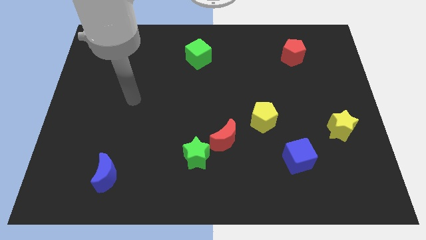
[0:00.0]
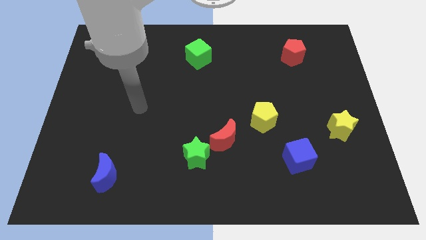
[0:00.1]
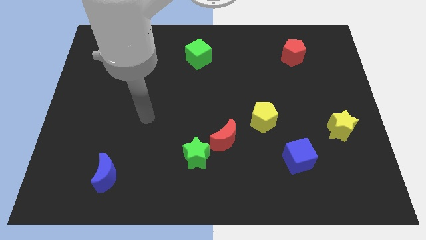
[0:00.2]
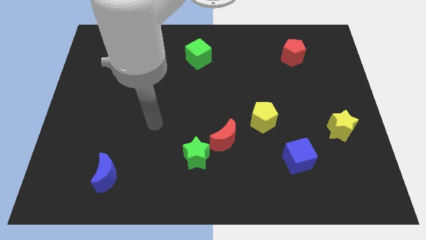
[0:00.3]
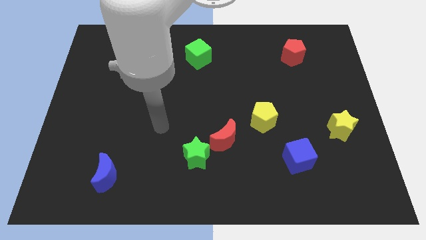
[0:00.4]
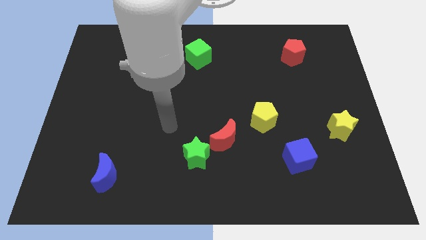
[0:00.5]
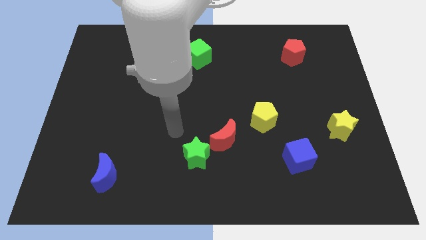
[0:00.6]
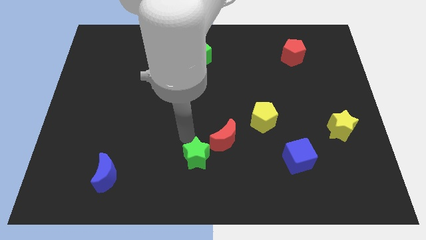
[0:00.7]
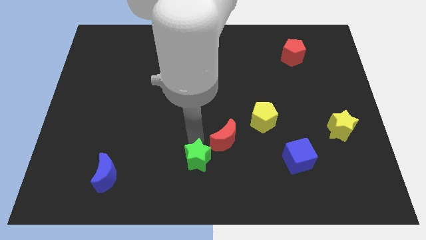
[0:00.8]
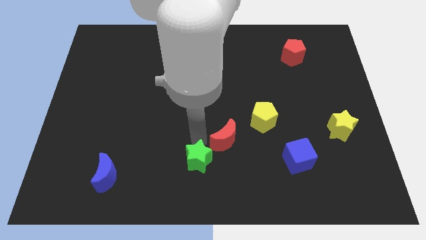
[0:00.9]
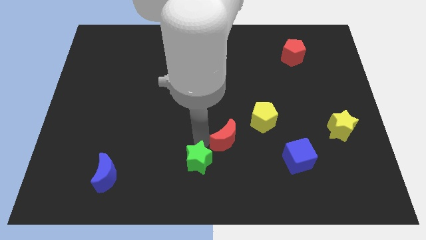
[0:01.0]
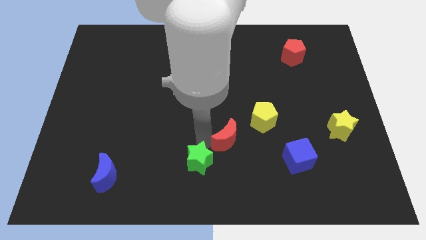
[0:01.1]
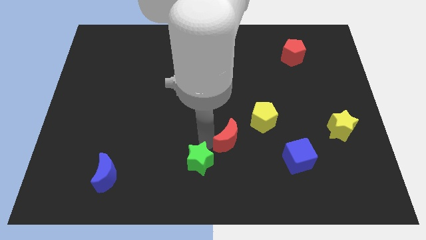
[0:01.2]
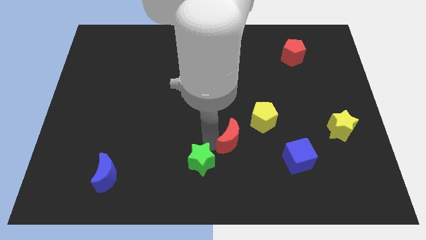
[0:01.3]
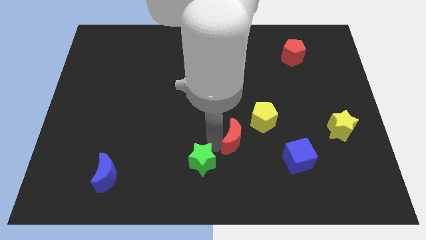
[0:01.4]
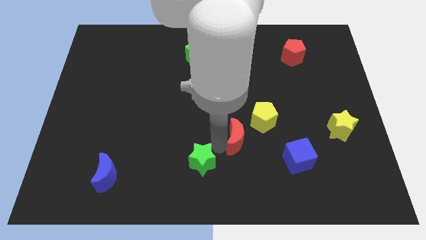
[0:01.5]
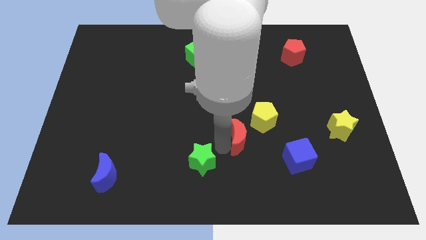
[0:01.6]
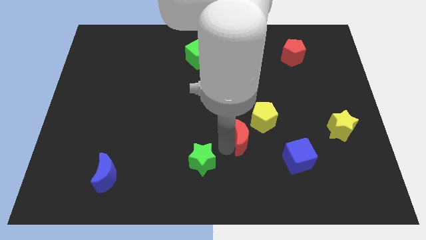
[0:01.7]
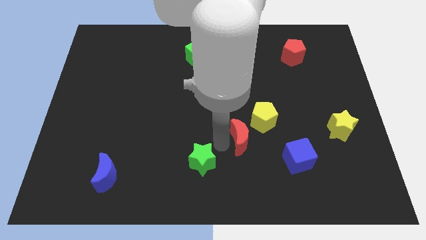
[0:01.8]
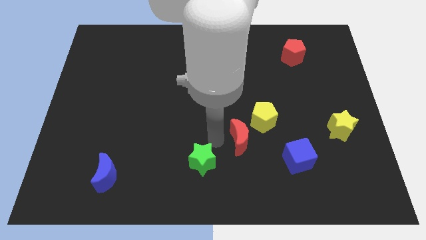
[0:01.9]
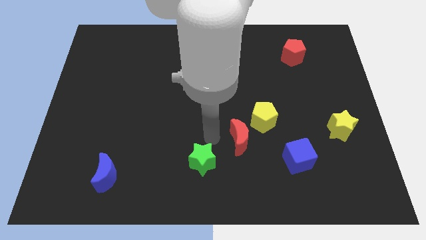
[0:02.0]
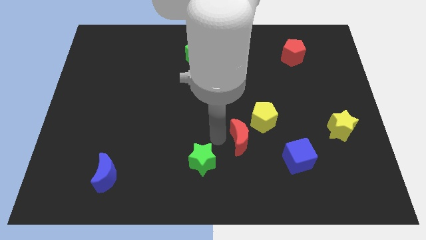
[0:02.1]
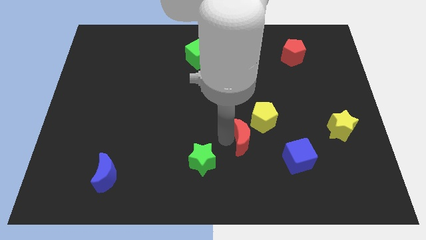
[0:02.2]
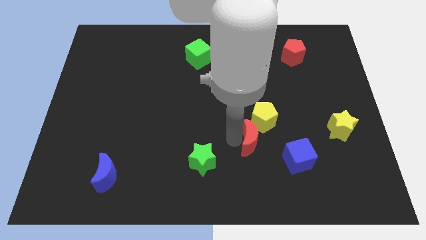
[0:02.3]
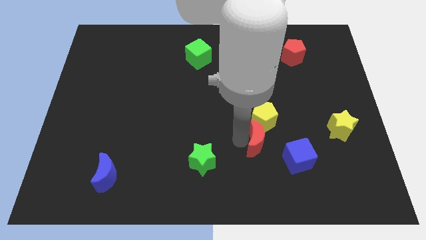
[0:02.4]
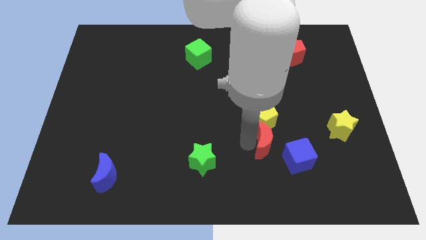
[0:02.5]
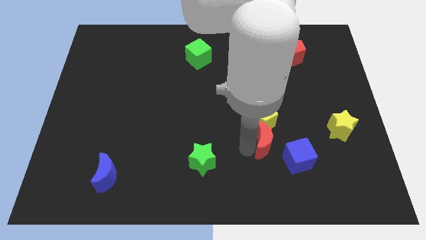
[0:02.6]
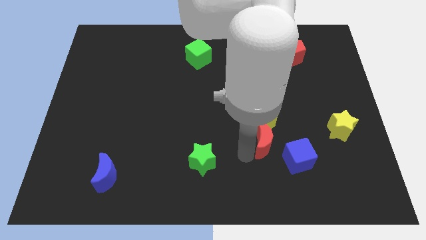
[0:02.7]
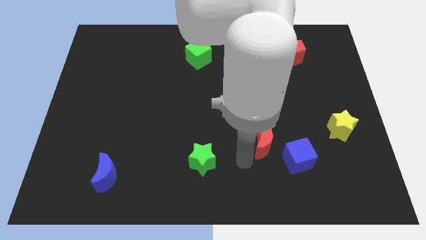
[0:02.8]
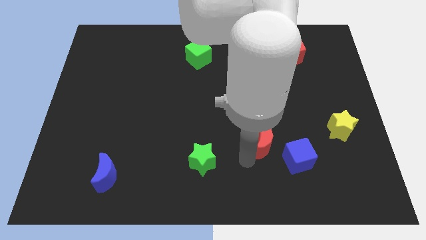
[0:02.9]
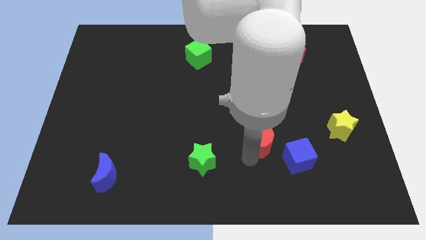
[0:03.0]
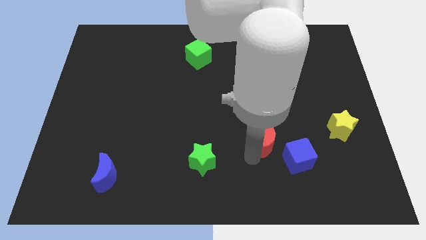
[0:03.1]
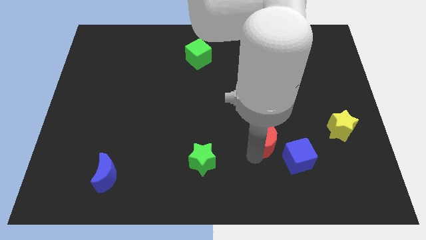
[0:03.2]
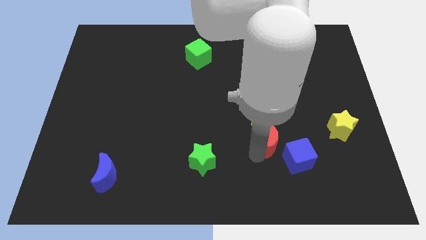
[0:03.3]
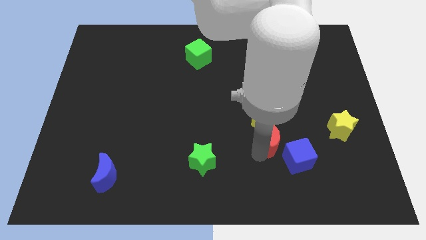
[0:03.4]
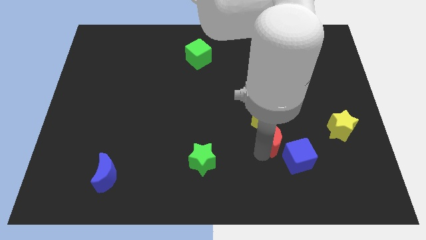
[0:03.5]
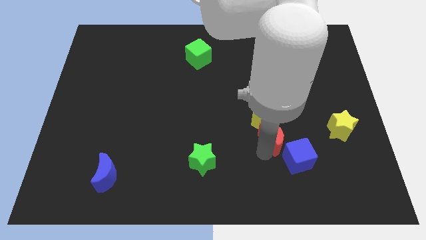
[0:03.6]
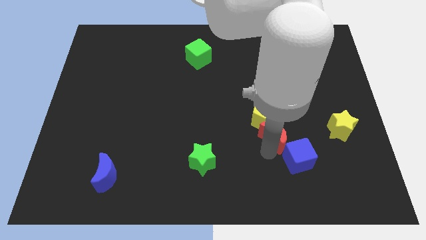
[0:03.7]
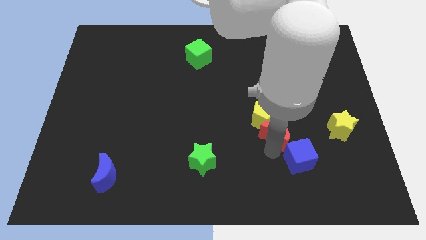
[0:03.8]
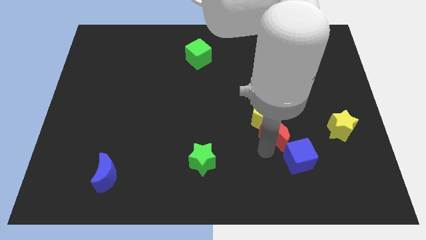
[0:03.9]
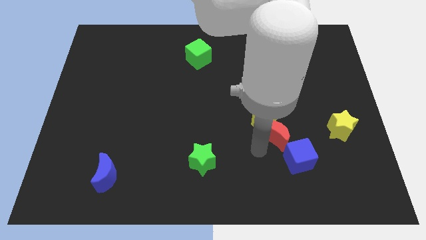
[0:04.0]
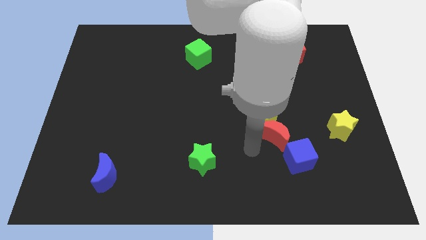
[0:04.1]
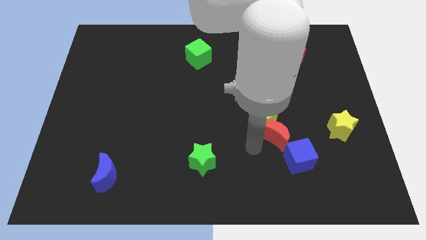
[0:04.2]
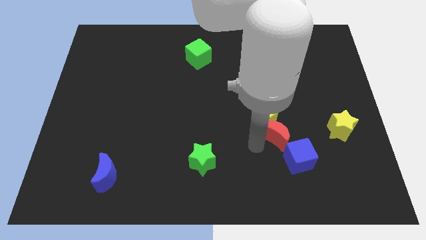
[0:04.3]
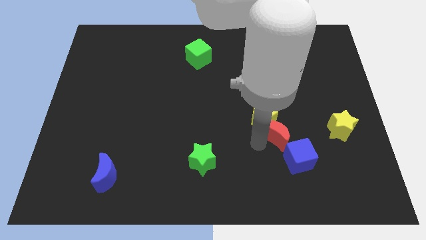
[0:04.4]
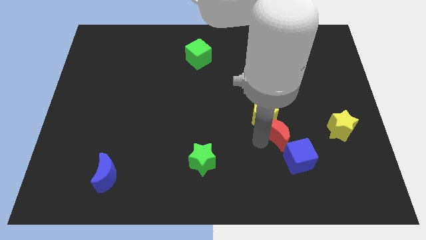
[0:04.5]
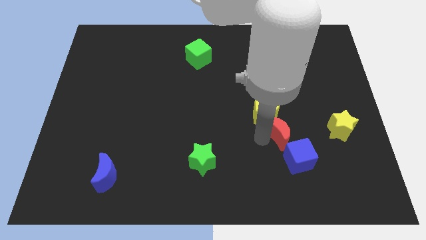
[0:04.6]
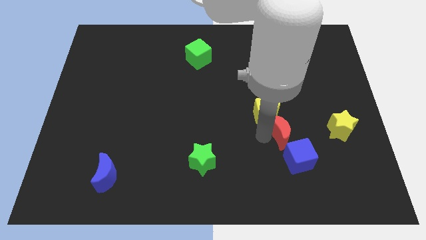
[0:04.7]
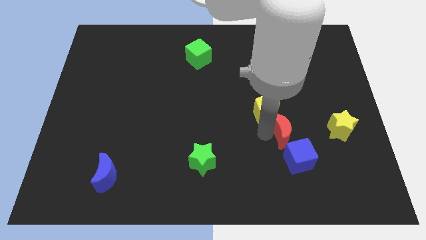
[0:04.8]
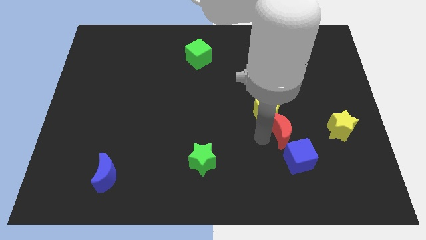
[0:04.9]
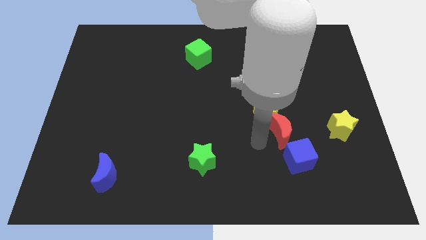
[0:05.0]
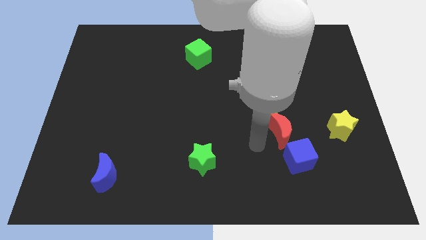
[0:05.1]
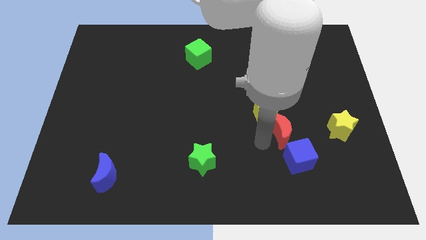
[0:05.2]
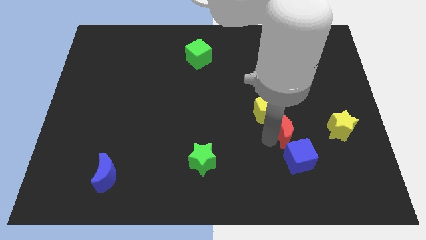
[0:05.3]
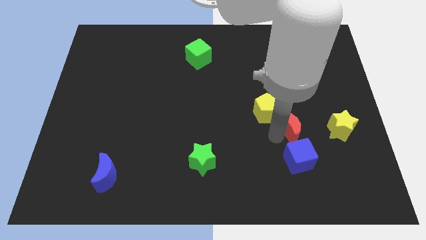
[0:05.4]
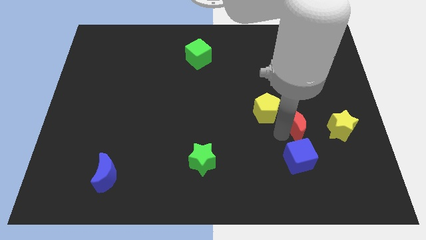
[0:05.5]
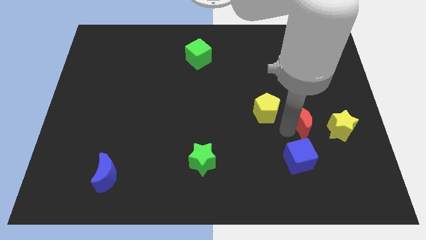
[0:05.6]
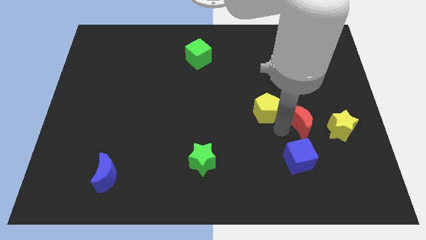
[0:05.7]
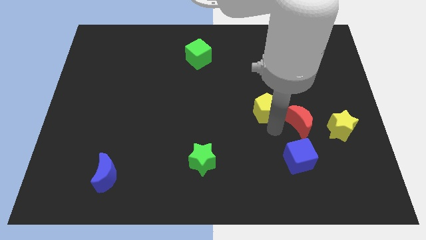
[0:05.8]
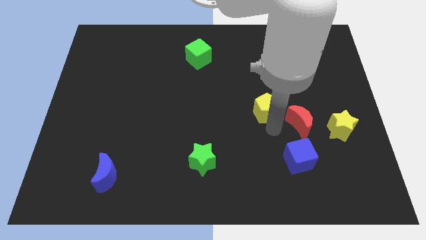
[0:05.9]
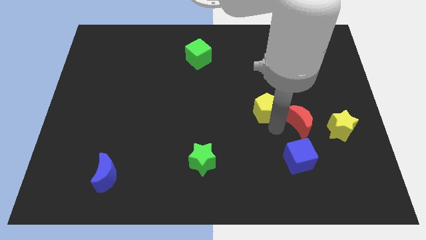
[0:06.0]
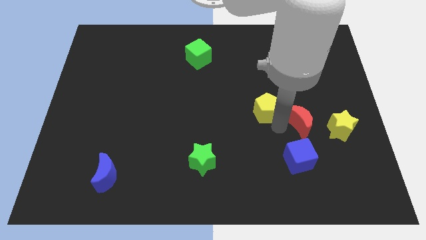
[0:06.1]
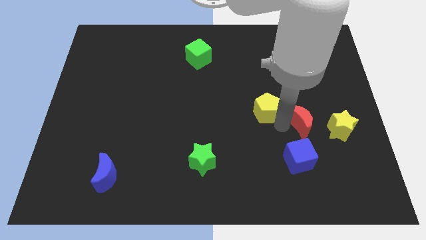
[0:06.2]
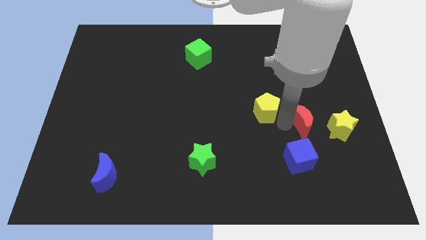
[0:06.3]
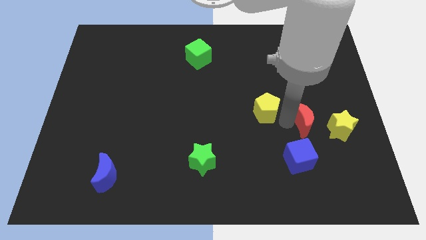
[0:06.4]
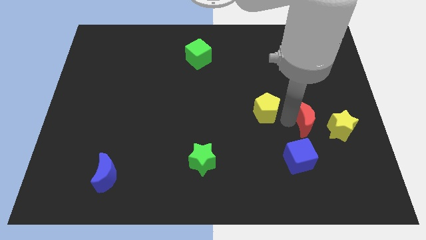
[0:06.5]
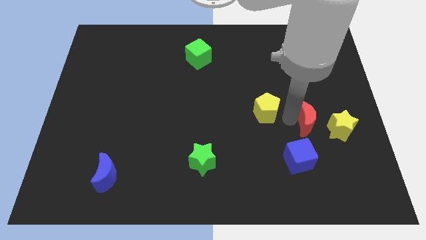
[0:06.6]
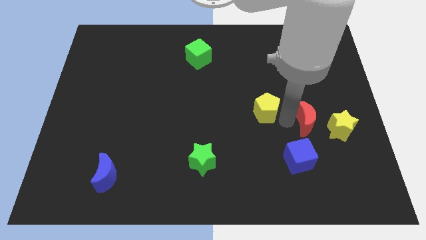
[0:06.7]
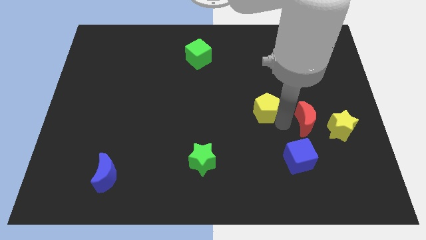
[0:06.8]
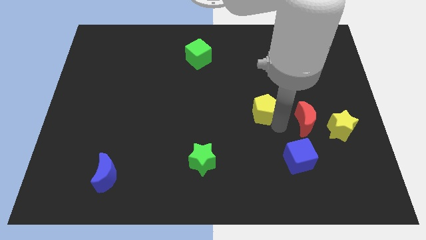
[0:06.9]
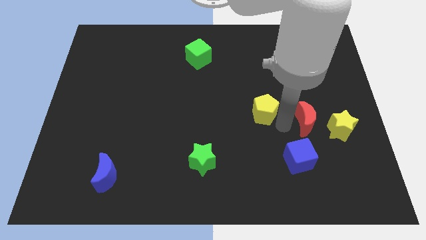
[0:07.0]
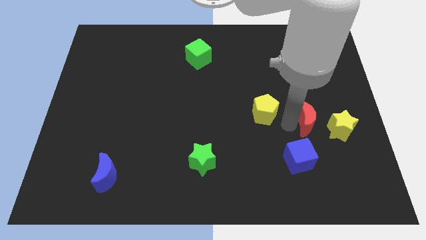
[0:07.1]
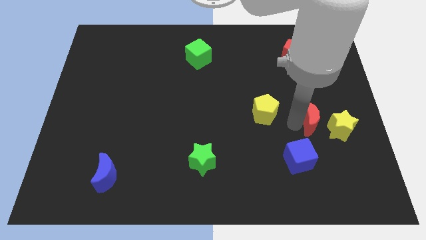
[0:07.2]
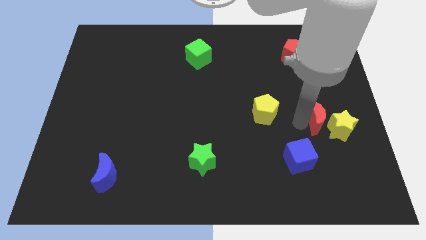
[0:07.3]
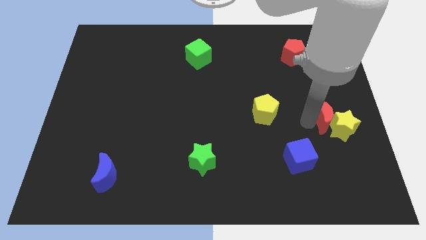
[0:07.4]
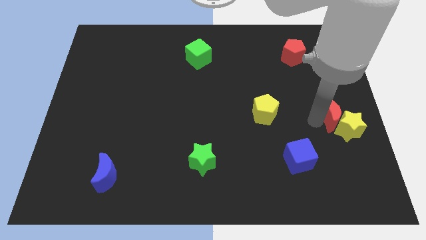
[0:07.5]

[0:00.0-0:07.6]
move the red moon to the center right
